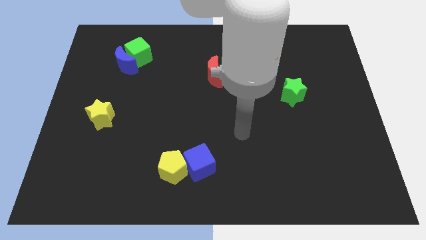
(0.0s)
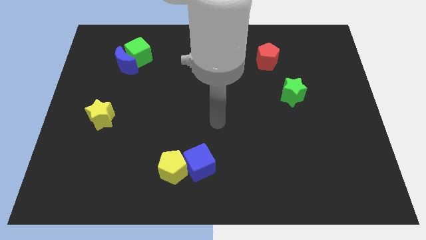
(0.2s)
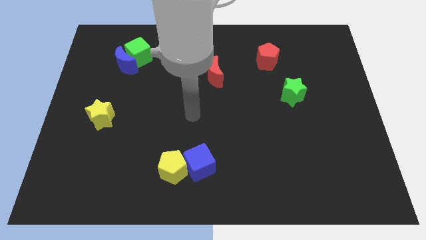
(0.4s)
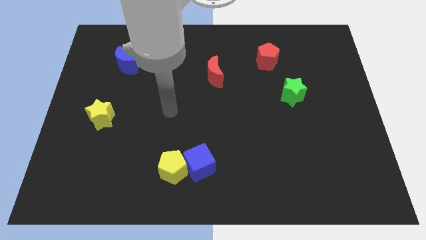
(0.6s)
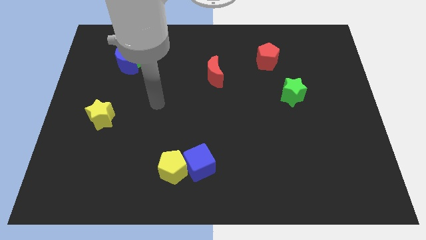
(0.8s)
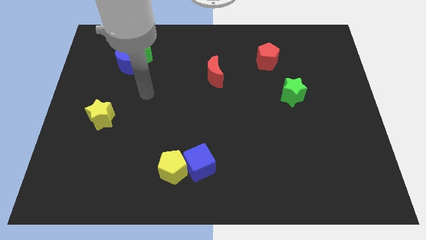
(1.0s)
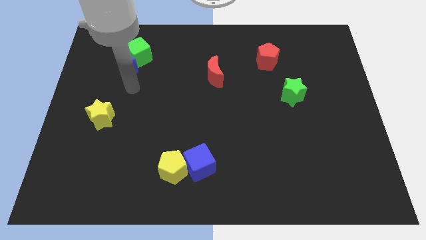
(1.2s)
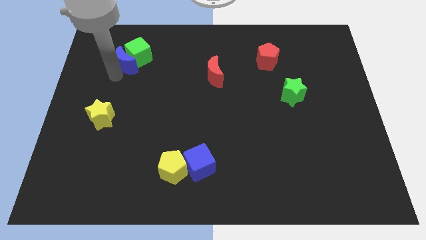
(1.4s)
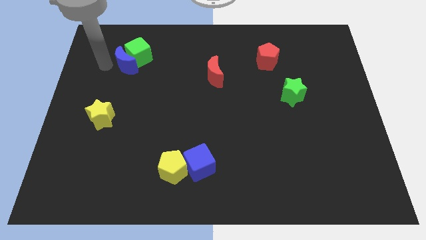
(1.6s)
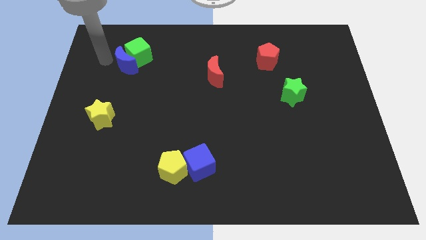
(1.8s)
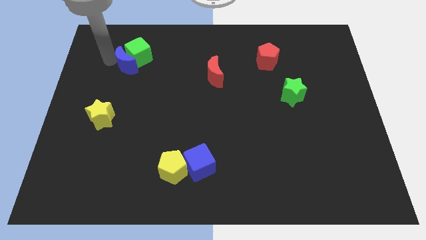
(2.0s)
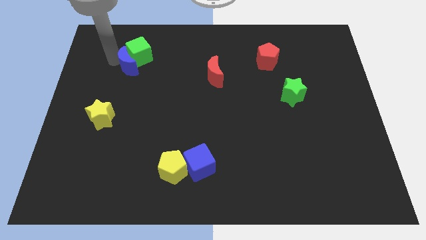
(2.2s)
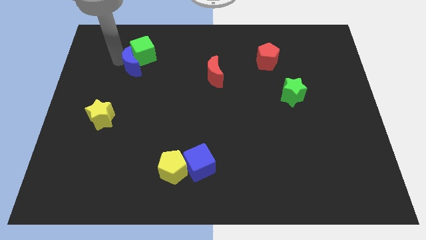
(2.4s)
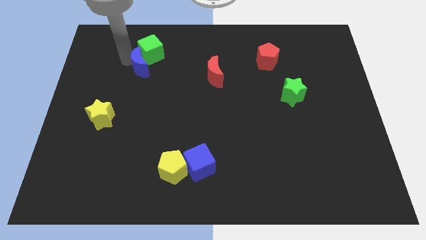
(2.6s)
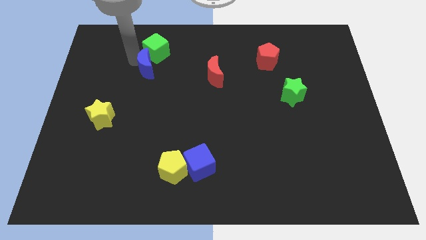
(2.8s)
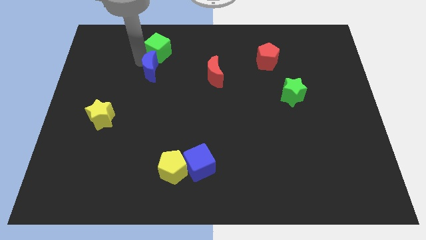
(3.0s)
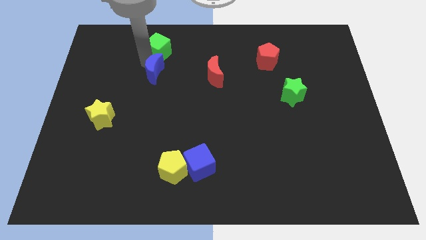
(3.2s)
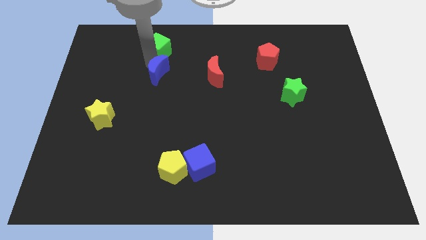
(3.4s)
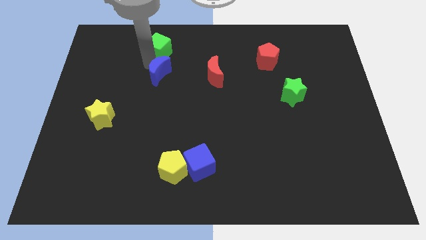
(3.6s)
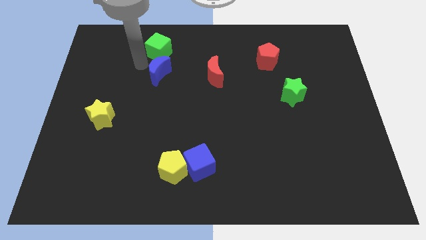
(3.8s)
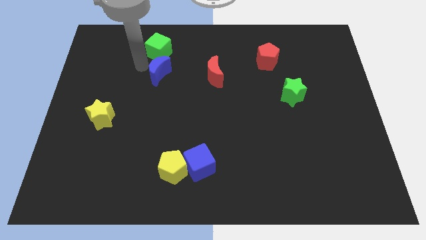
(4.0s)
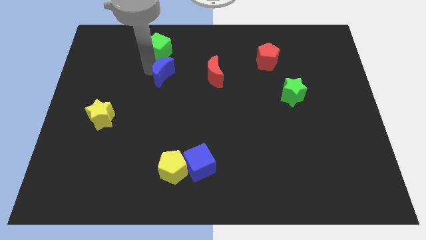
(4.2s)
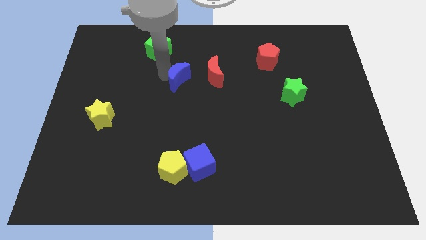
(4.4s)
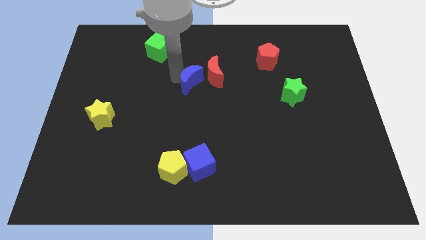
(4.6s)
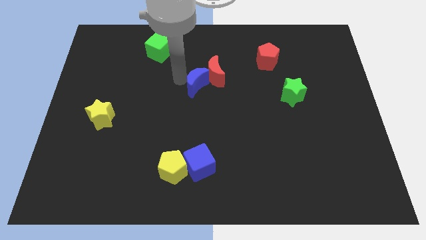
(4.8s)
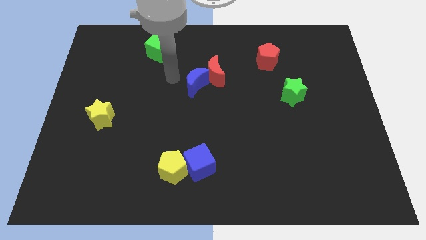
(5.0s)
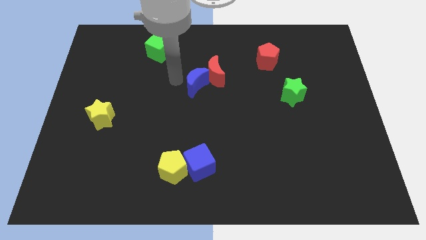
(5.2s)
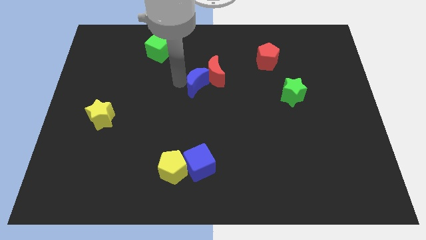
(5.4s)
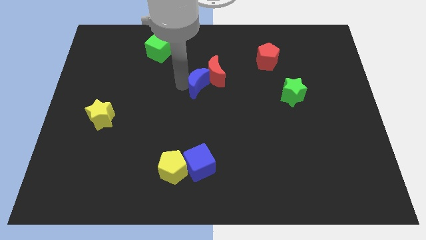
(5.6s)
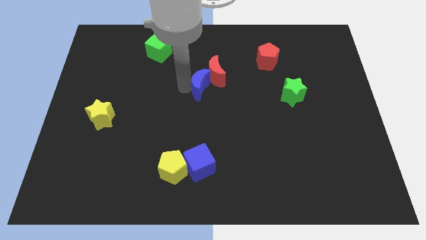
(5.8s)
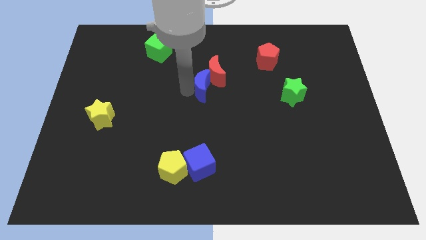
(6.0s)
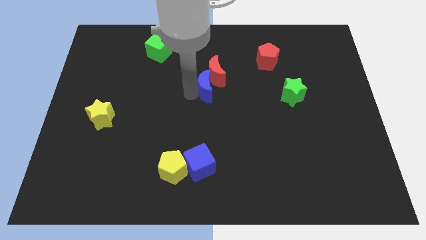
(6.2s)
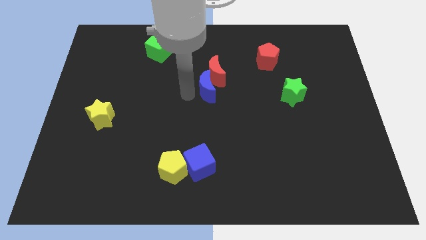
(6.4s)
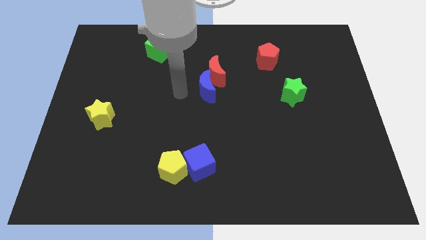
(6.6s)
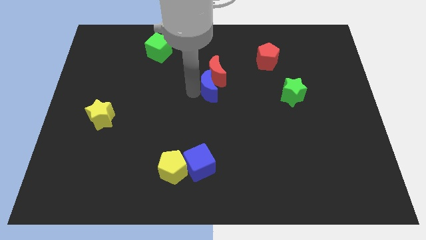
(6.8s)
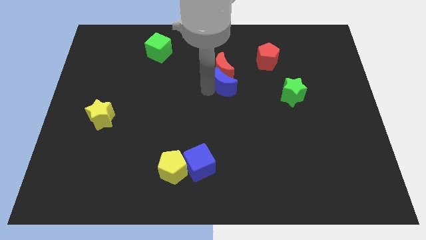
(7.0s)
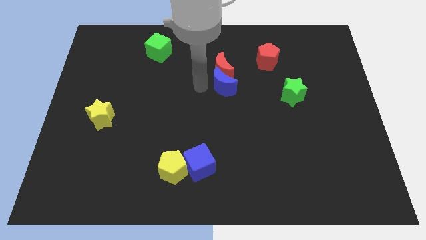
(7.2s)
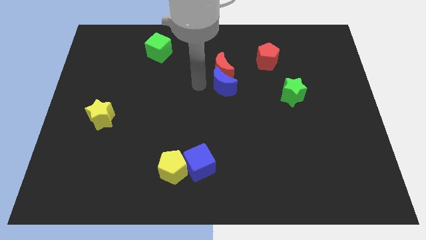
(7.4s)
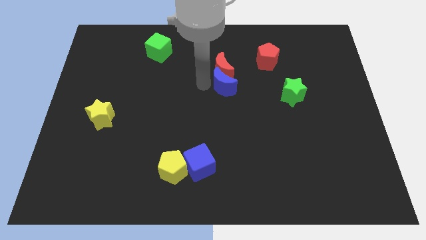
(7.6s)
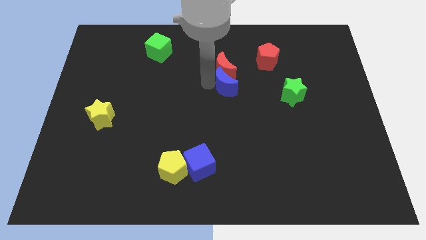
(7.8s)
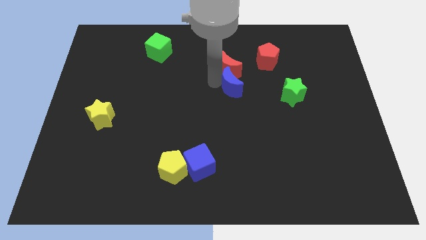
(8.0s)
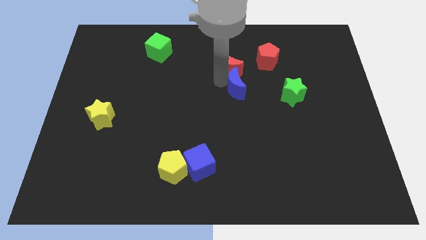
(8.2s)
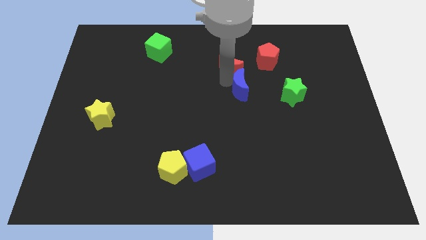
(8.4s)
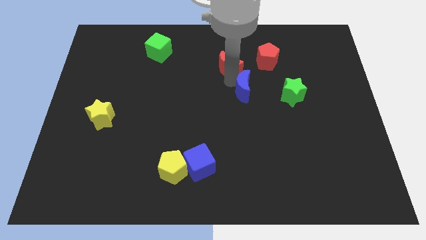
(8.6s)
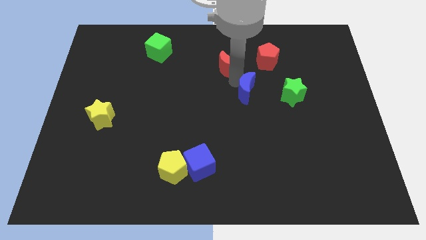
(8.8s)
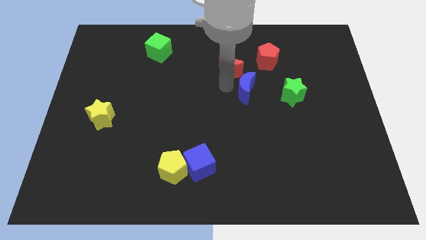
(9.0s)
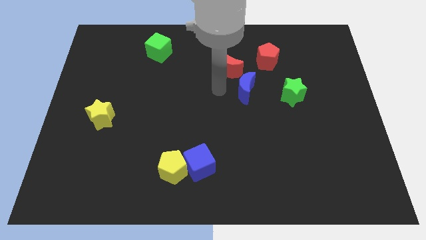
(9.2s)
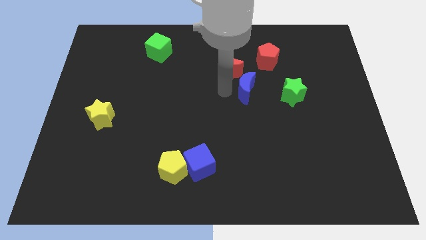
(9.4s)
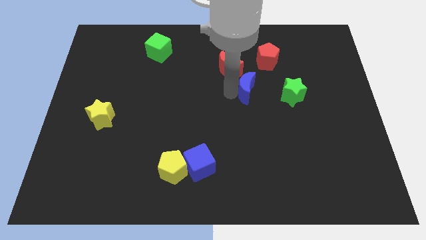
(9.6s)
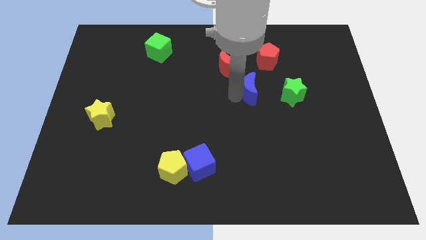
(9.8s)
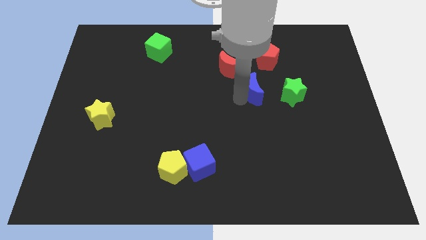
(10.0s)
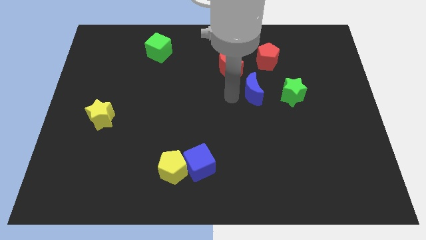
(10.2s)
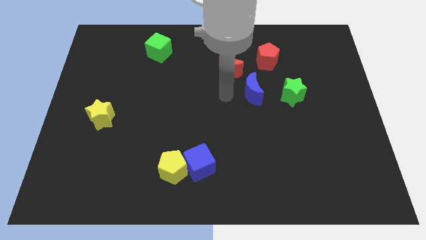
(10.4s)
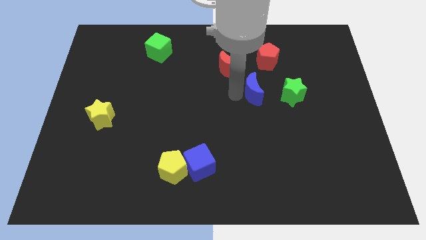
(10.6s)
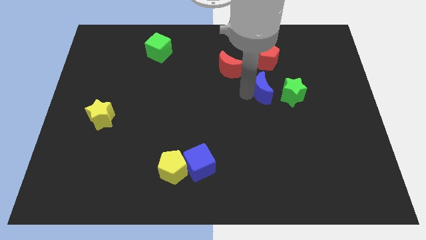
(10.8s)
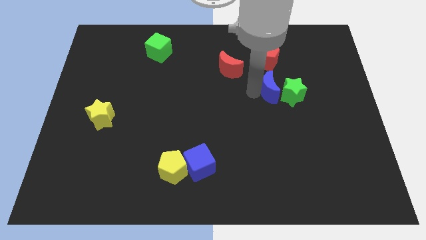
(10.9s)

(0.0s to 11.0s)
move the blue moon next to the green star

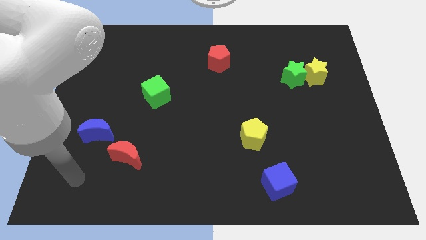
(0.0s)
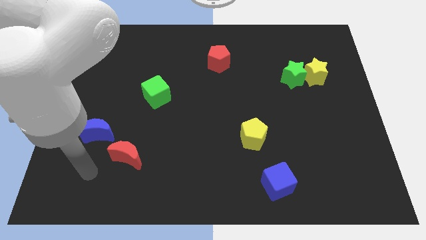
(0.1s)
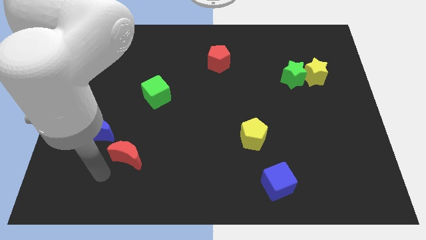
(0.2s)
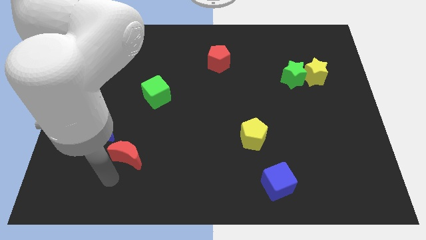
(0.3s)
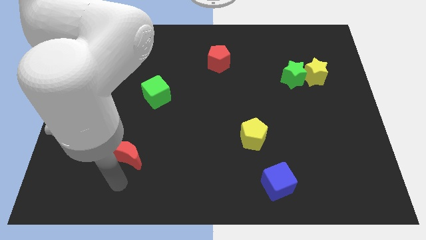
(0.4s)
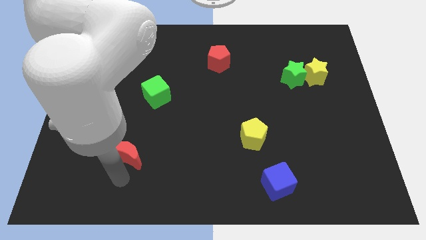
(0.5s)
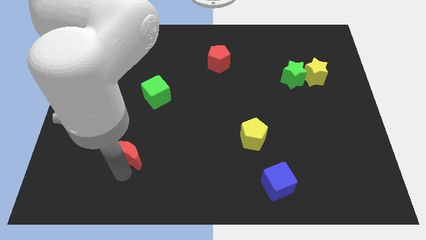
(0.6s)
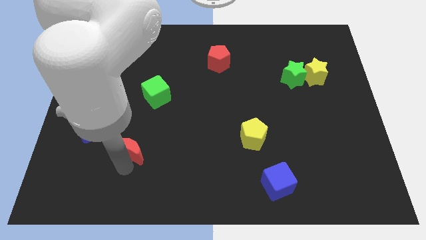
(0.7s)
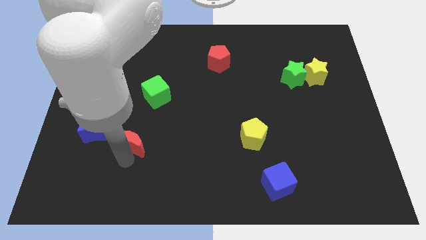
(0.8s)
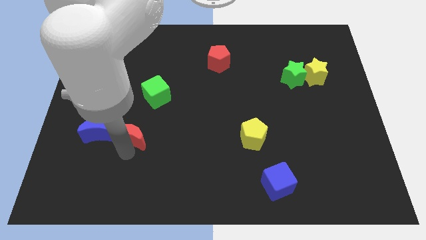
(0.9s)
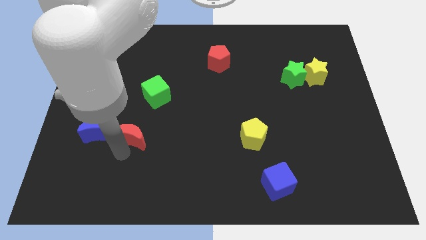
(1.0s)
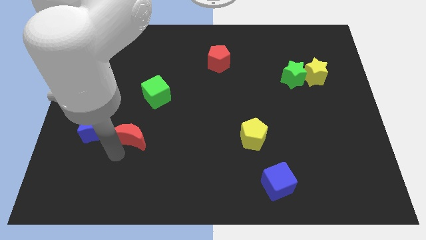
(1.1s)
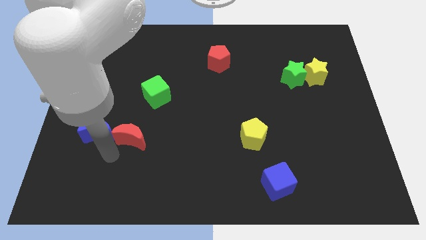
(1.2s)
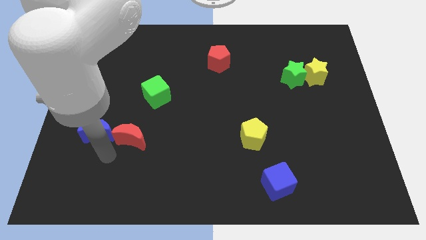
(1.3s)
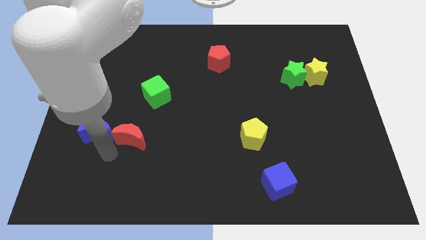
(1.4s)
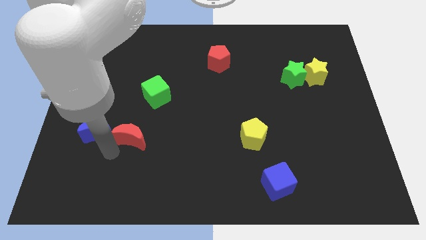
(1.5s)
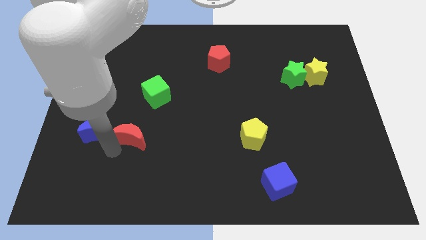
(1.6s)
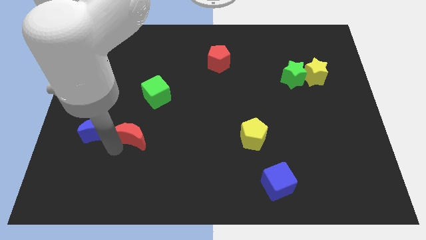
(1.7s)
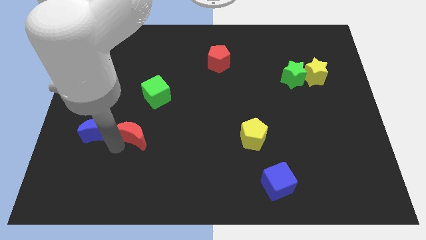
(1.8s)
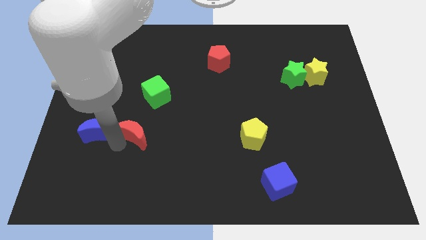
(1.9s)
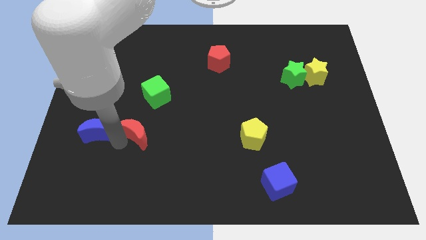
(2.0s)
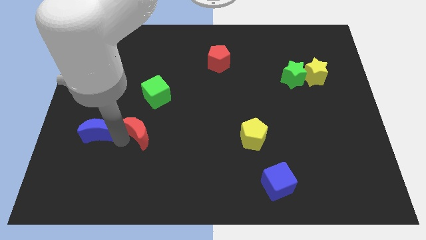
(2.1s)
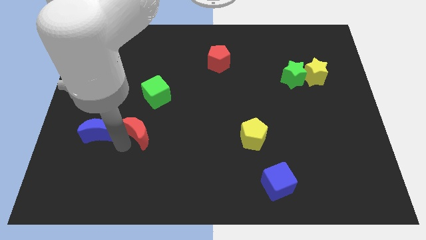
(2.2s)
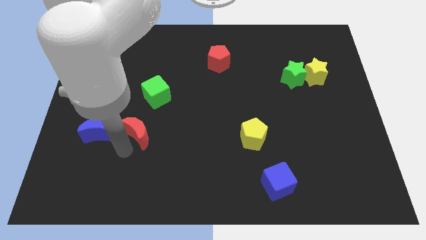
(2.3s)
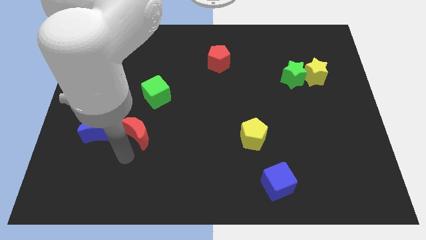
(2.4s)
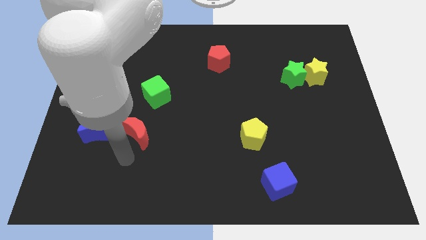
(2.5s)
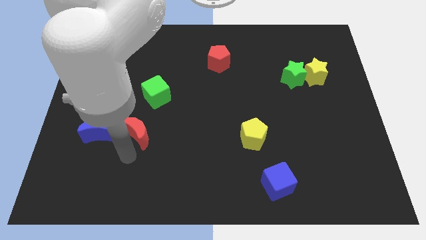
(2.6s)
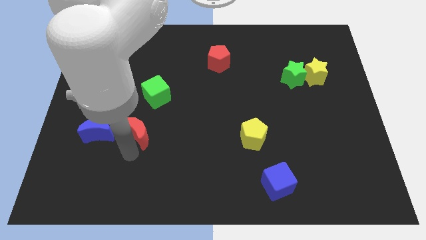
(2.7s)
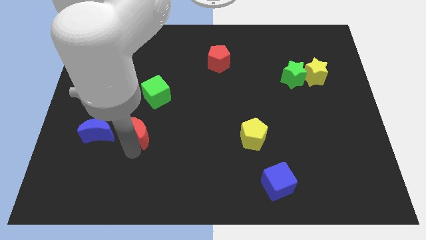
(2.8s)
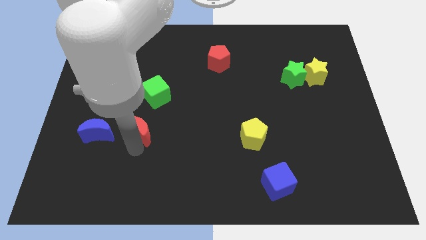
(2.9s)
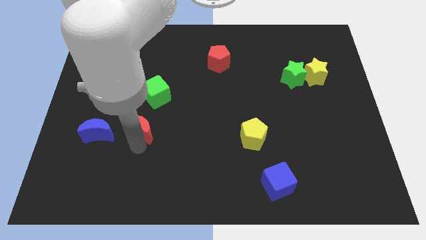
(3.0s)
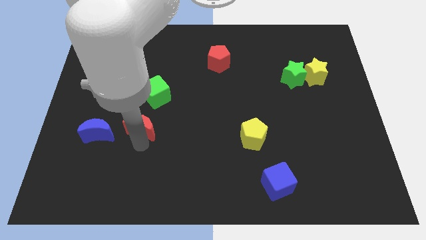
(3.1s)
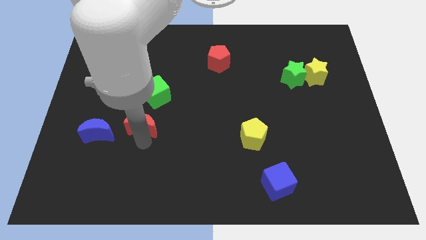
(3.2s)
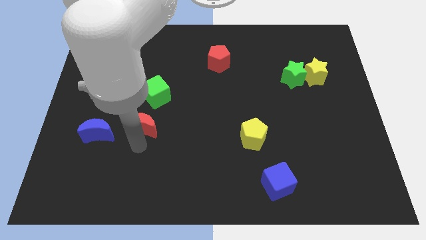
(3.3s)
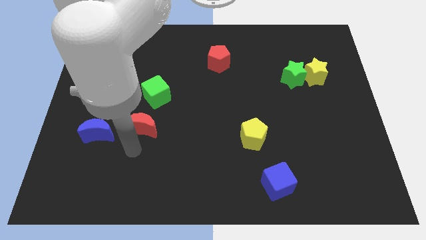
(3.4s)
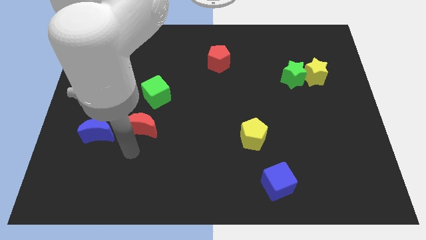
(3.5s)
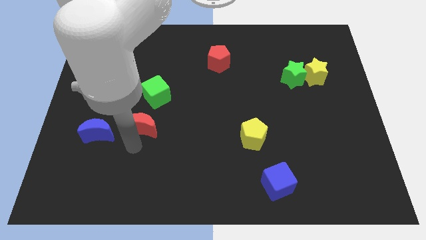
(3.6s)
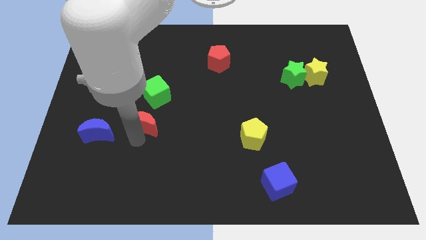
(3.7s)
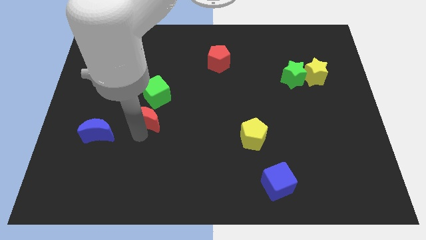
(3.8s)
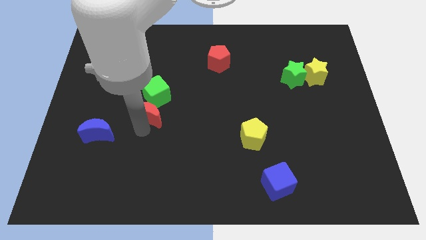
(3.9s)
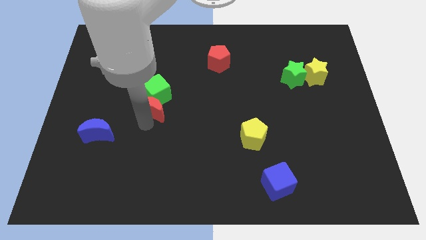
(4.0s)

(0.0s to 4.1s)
slide the red moon towards the green cube
